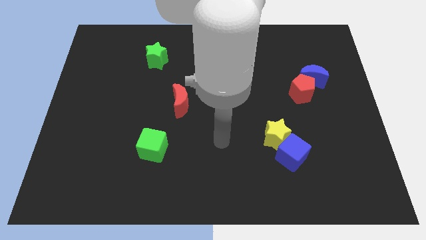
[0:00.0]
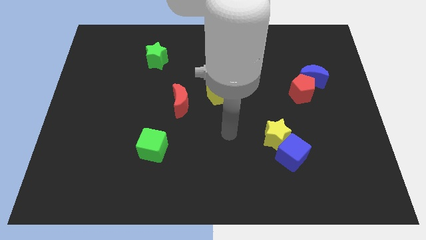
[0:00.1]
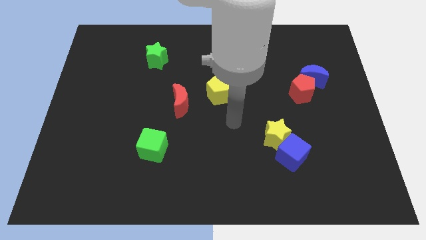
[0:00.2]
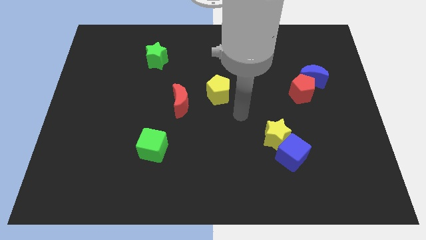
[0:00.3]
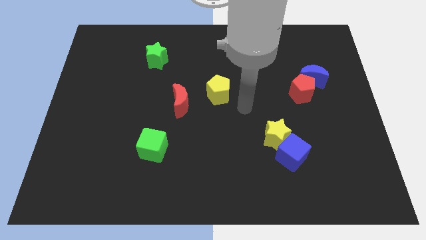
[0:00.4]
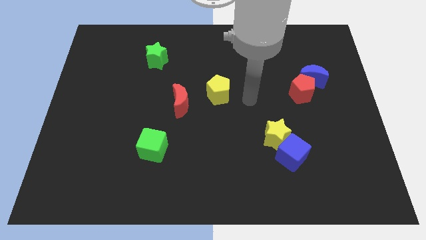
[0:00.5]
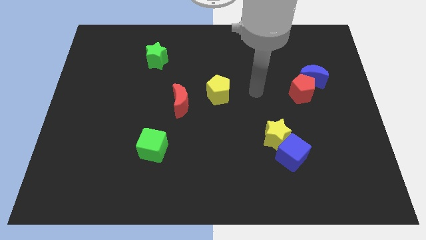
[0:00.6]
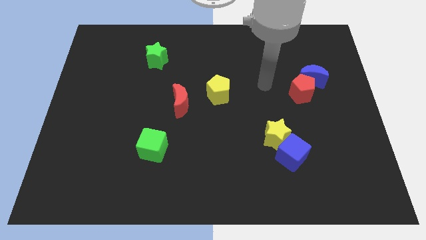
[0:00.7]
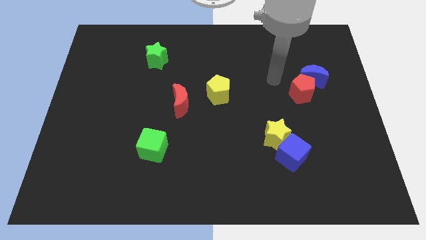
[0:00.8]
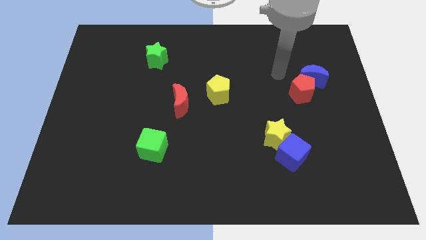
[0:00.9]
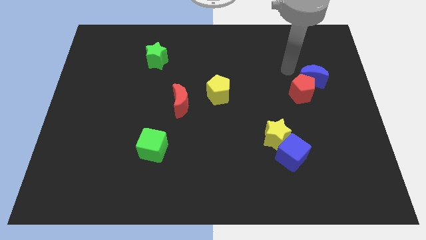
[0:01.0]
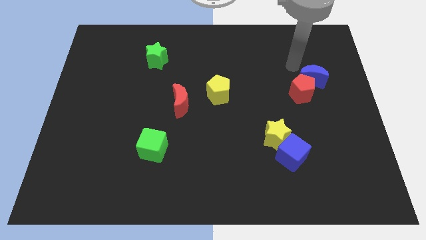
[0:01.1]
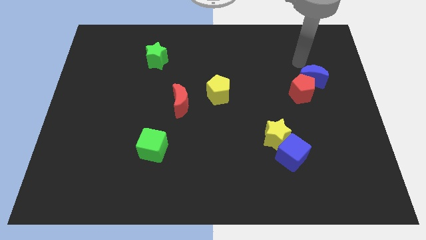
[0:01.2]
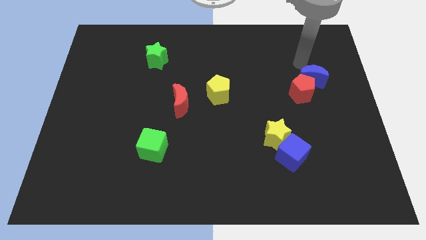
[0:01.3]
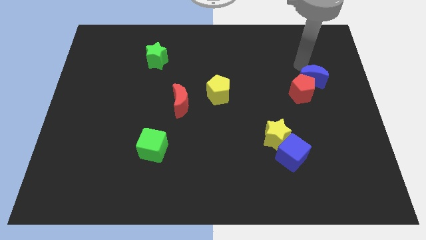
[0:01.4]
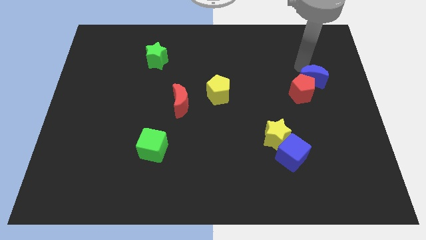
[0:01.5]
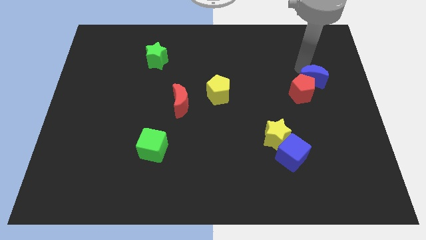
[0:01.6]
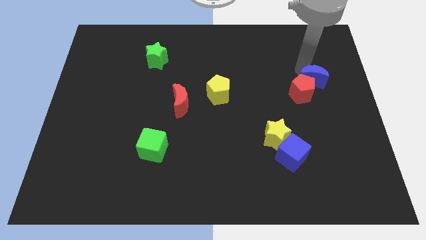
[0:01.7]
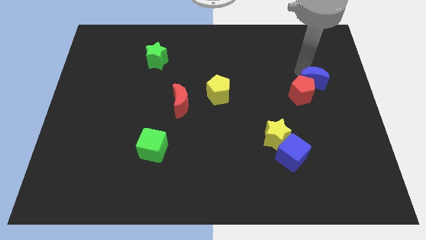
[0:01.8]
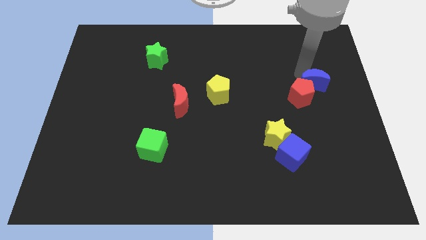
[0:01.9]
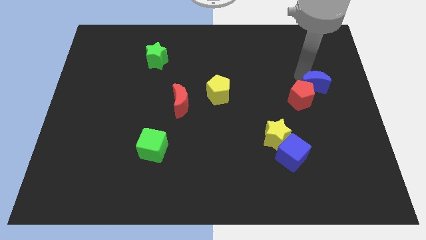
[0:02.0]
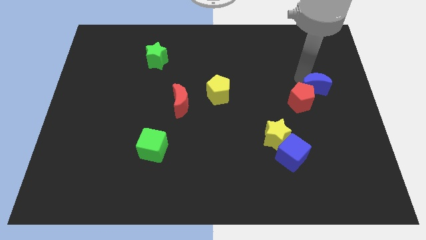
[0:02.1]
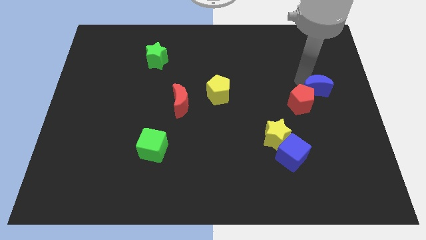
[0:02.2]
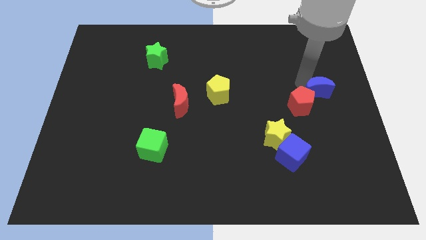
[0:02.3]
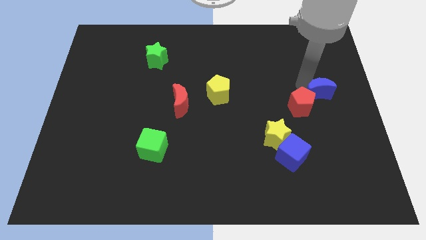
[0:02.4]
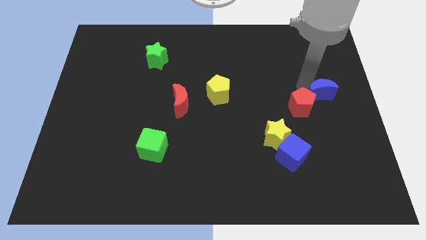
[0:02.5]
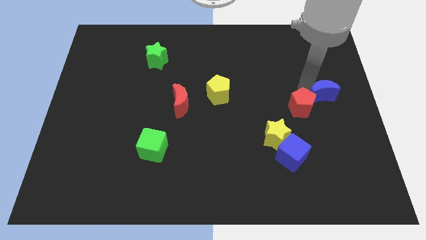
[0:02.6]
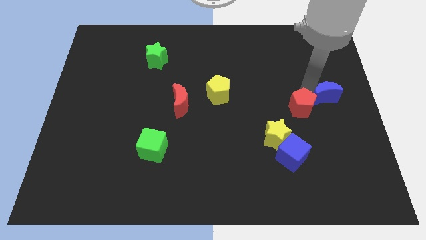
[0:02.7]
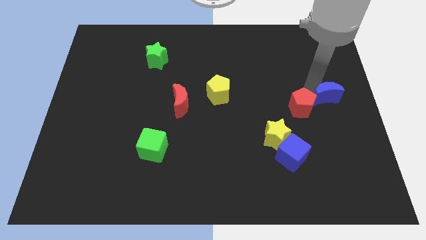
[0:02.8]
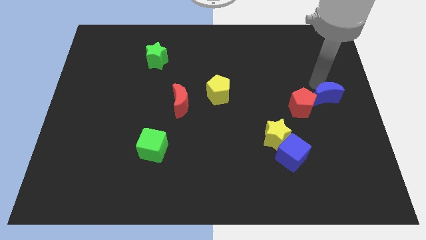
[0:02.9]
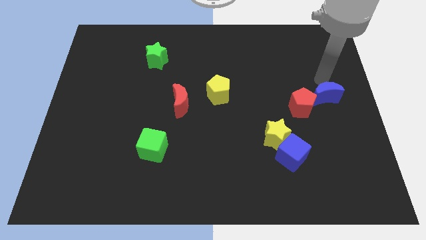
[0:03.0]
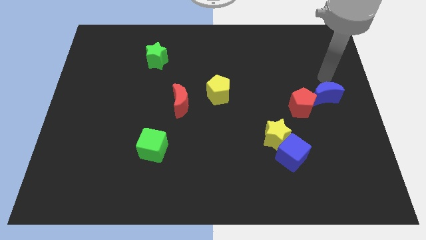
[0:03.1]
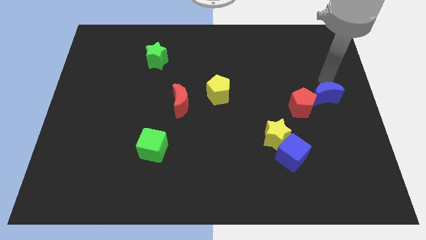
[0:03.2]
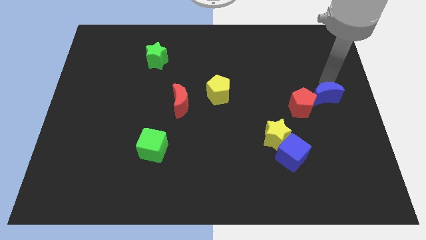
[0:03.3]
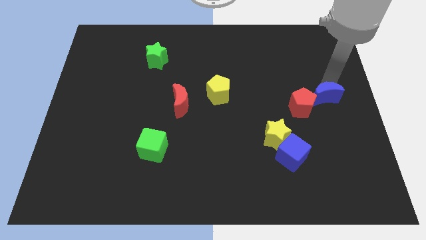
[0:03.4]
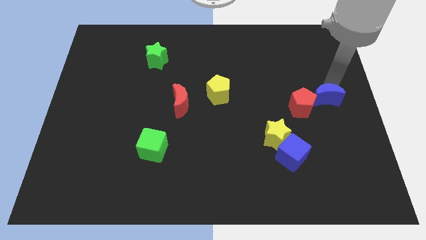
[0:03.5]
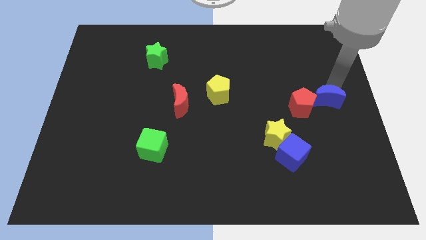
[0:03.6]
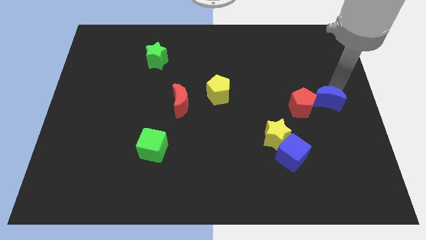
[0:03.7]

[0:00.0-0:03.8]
slightly move the blue moon downwards

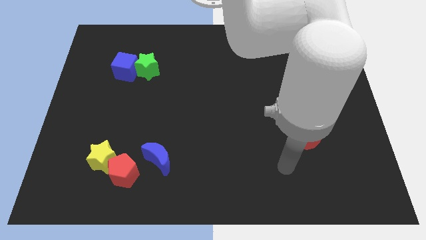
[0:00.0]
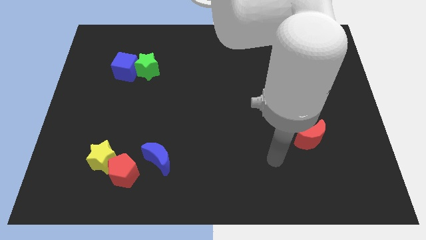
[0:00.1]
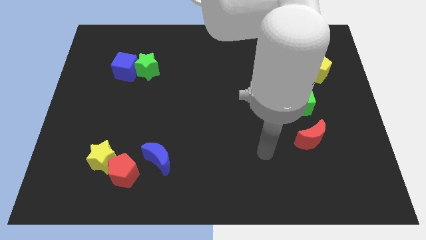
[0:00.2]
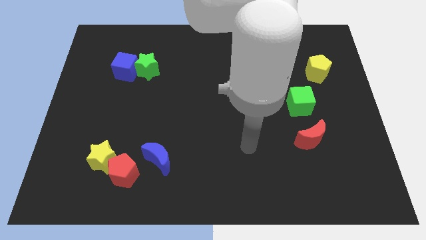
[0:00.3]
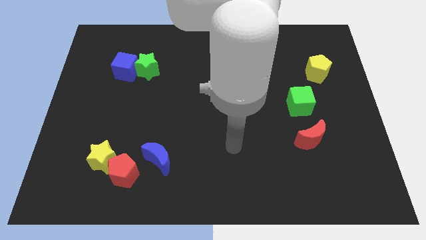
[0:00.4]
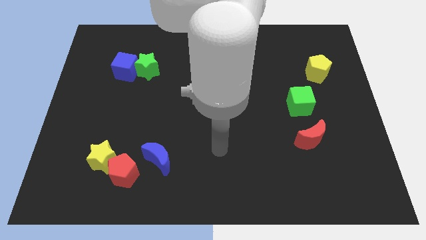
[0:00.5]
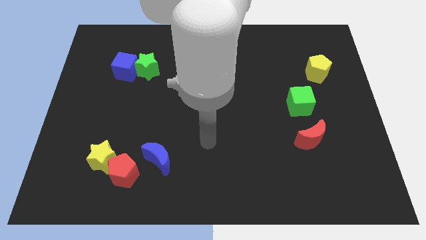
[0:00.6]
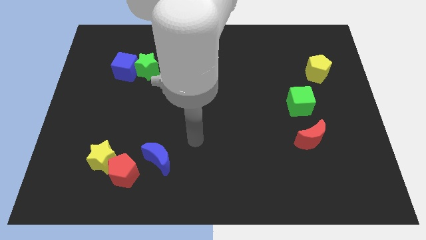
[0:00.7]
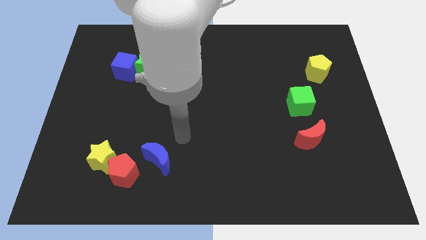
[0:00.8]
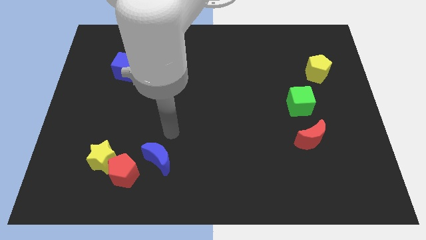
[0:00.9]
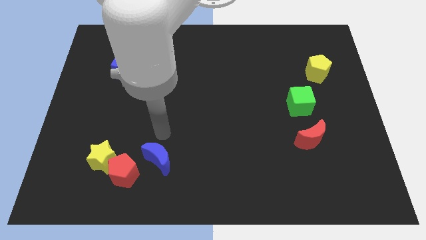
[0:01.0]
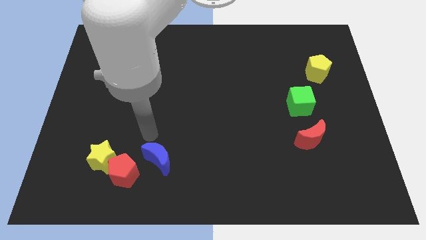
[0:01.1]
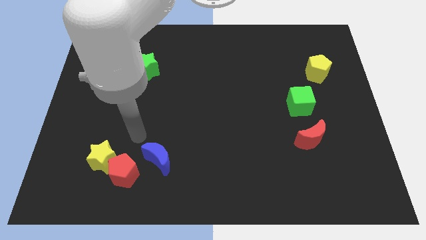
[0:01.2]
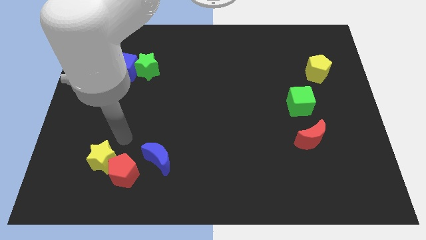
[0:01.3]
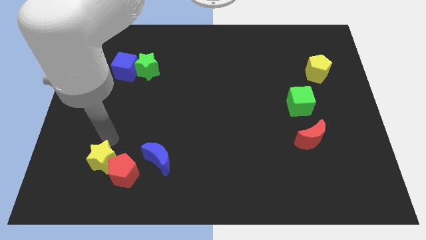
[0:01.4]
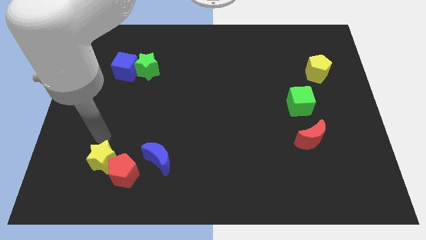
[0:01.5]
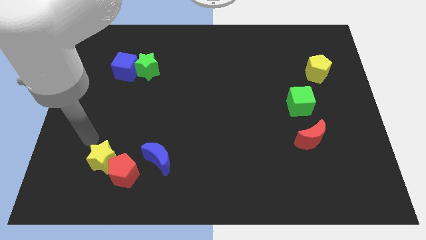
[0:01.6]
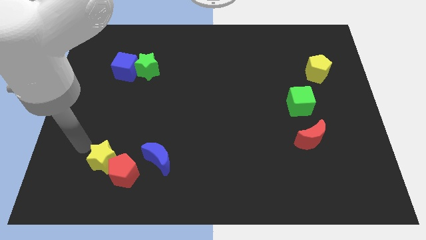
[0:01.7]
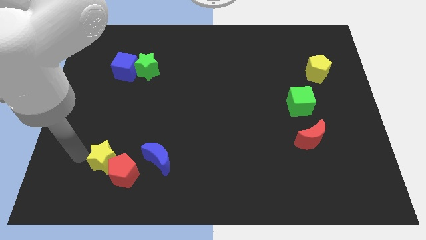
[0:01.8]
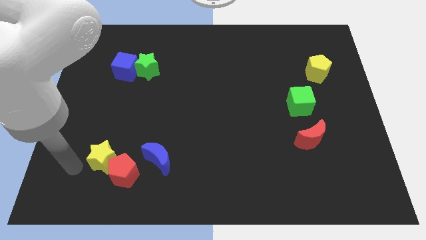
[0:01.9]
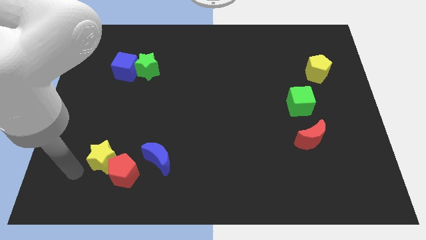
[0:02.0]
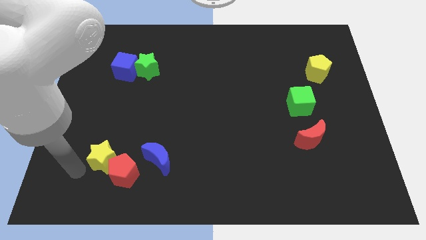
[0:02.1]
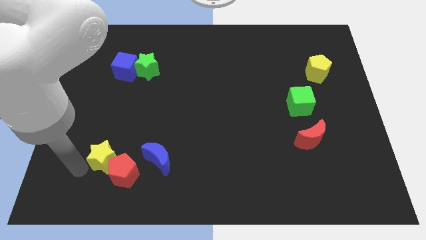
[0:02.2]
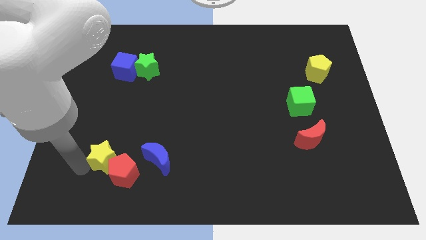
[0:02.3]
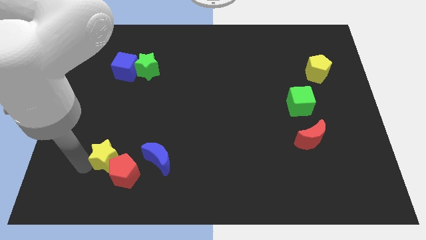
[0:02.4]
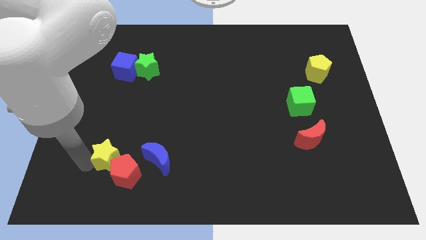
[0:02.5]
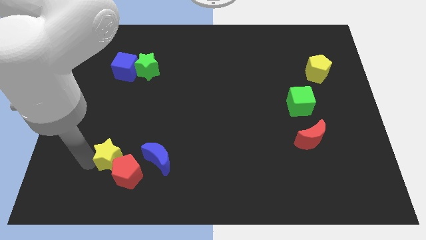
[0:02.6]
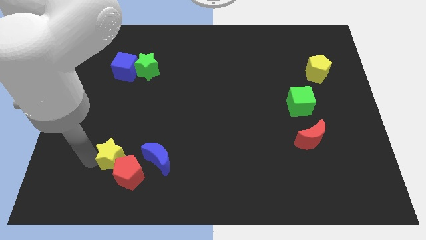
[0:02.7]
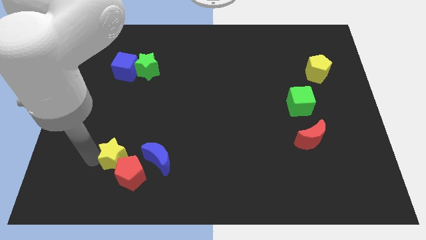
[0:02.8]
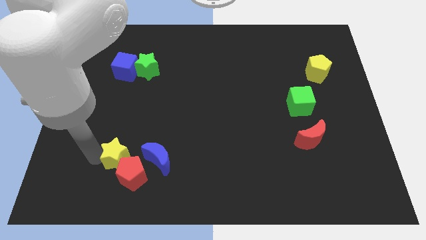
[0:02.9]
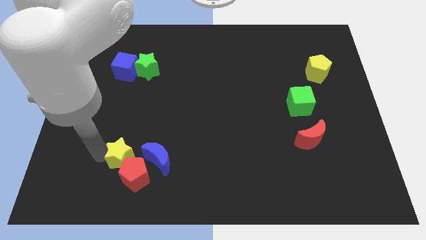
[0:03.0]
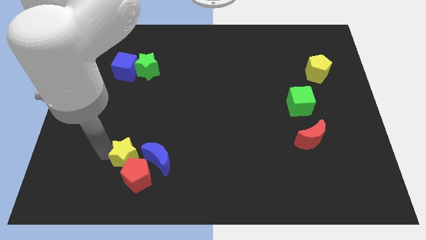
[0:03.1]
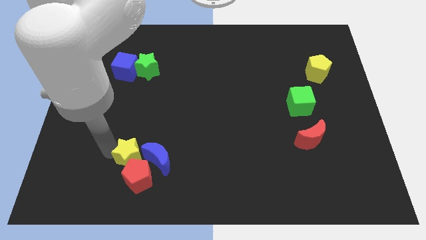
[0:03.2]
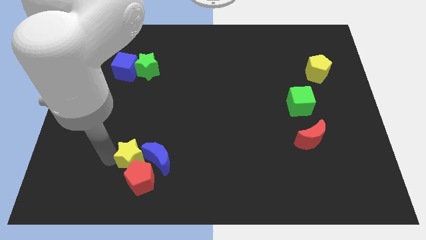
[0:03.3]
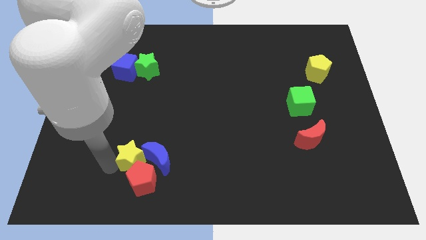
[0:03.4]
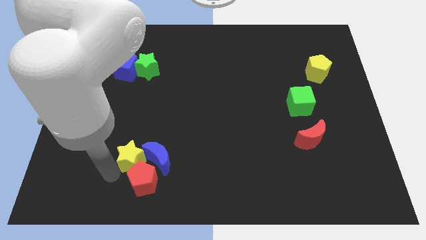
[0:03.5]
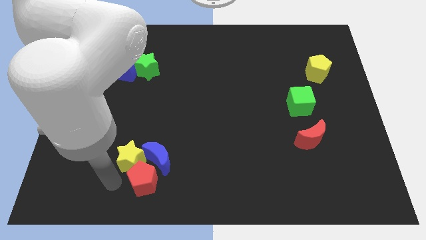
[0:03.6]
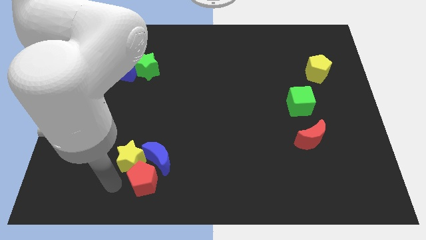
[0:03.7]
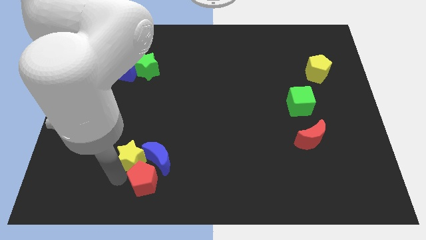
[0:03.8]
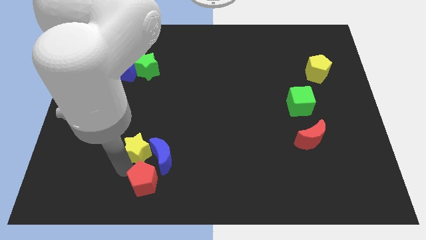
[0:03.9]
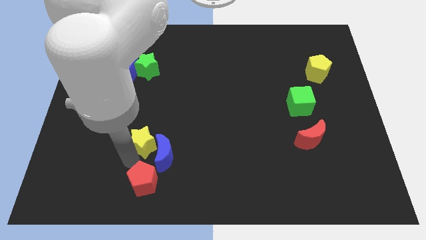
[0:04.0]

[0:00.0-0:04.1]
slightly slide the yellow star up and right
